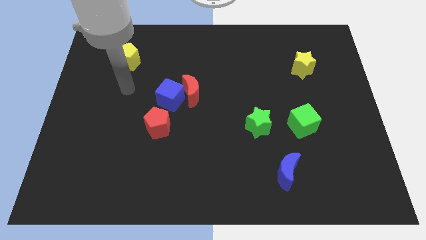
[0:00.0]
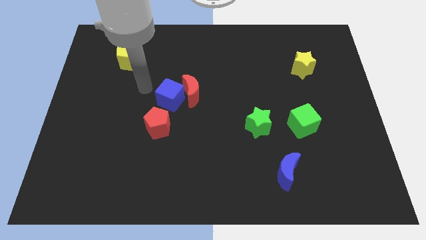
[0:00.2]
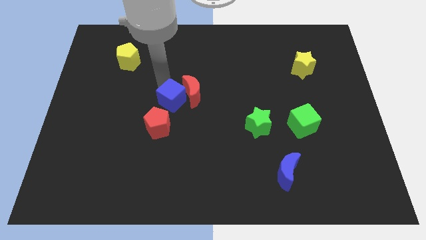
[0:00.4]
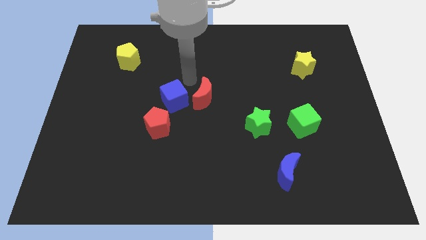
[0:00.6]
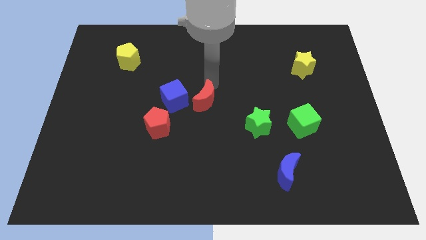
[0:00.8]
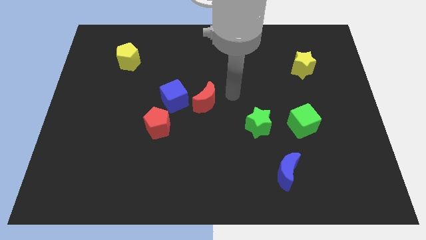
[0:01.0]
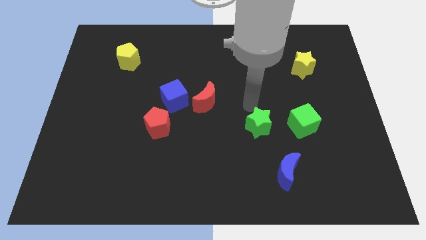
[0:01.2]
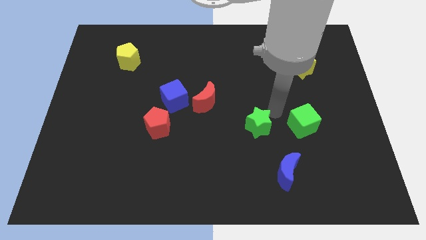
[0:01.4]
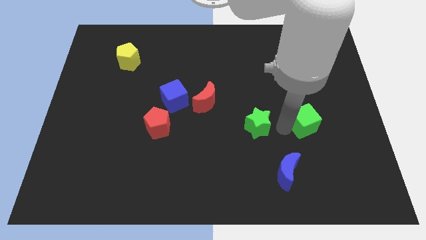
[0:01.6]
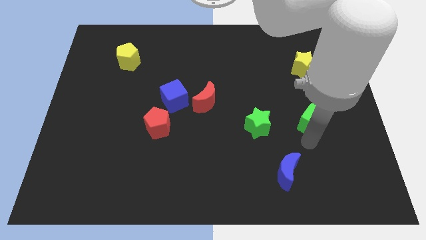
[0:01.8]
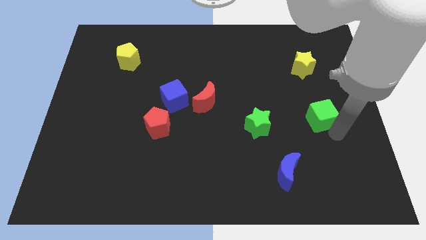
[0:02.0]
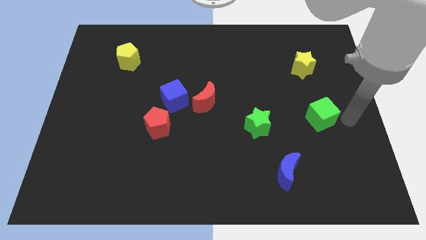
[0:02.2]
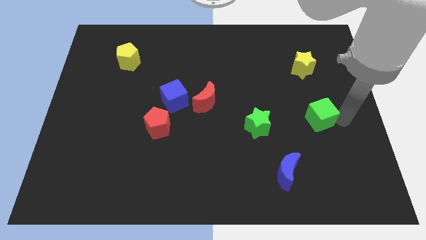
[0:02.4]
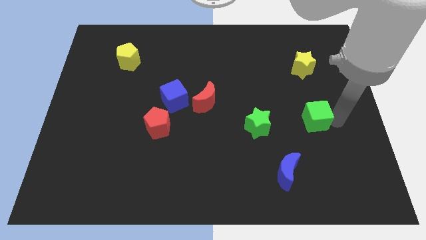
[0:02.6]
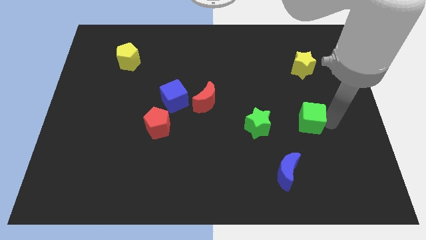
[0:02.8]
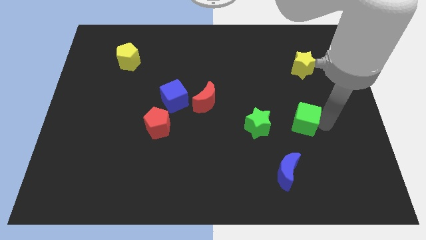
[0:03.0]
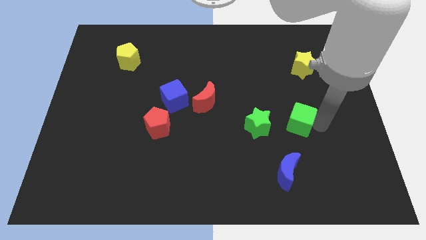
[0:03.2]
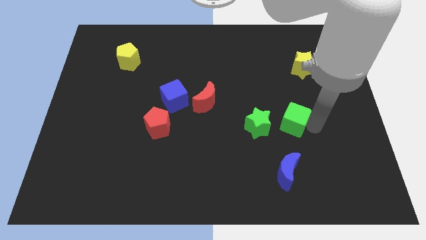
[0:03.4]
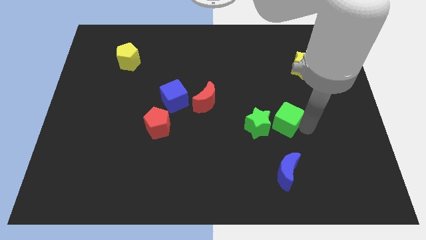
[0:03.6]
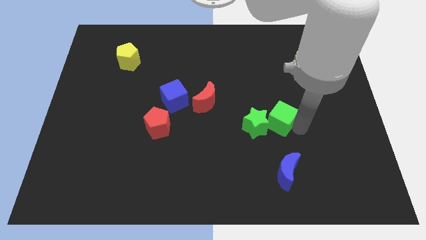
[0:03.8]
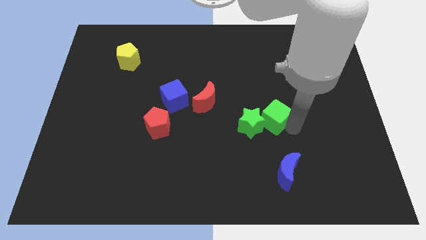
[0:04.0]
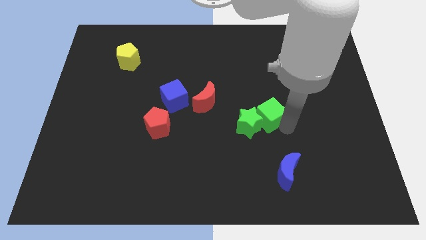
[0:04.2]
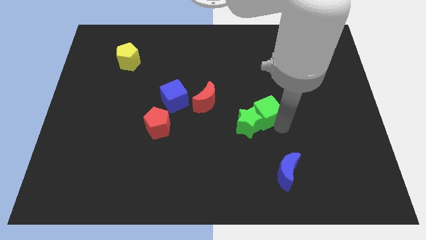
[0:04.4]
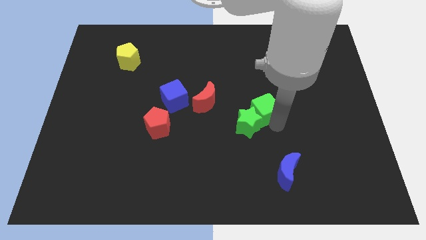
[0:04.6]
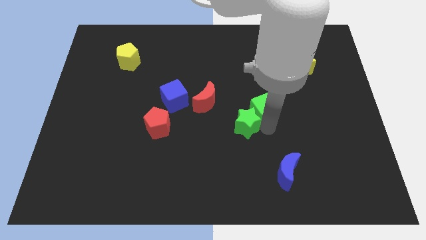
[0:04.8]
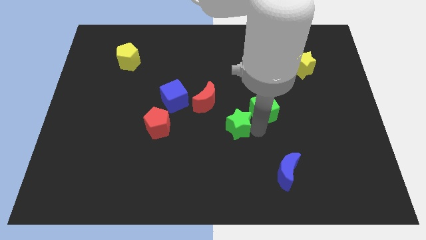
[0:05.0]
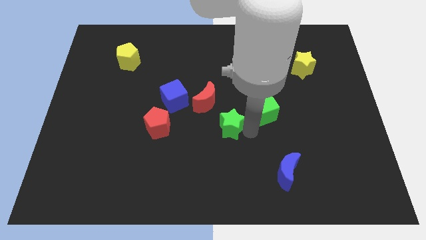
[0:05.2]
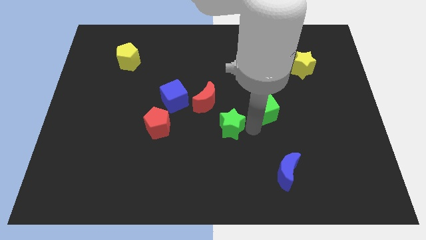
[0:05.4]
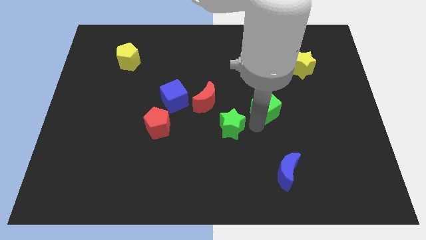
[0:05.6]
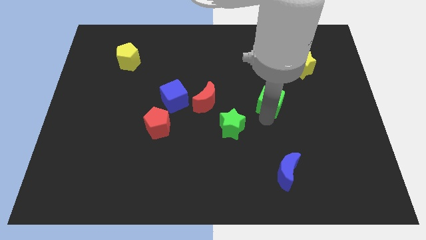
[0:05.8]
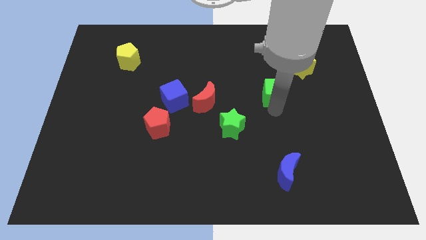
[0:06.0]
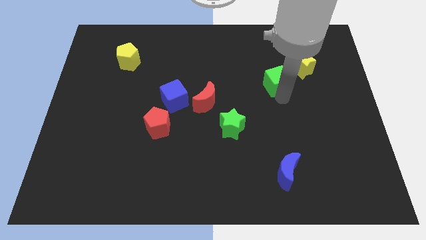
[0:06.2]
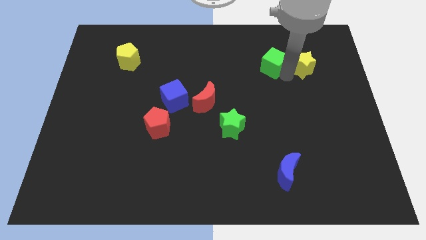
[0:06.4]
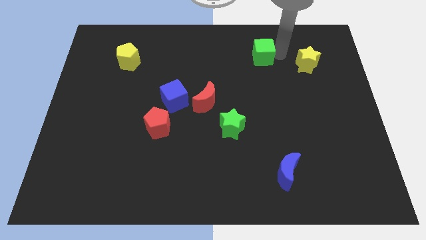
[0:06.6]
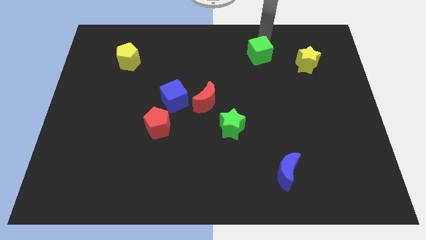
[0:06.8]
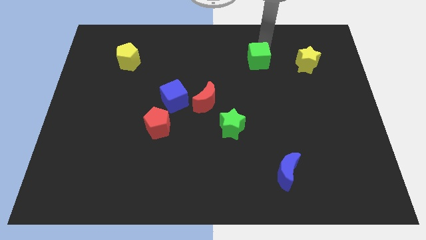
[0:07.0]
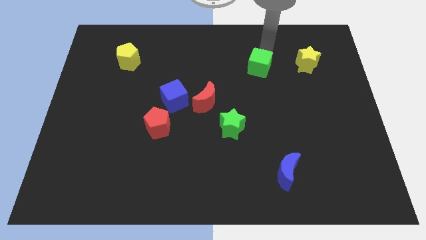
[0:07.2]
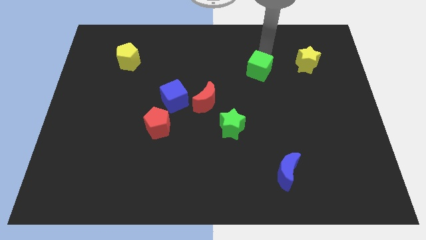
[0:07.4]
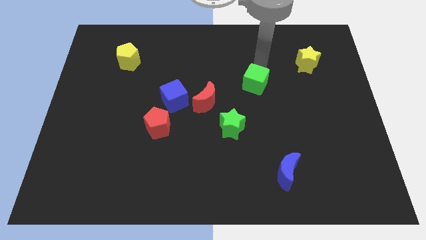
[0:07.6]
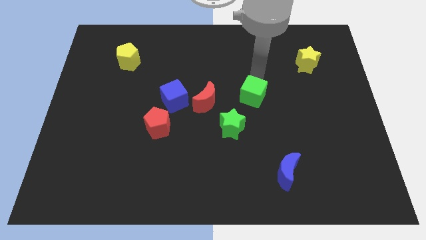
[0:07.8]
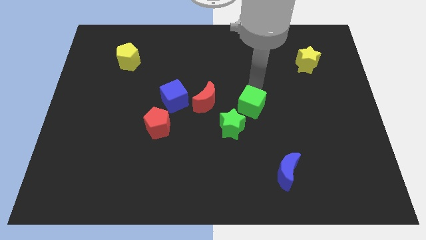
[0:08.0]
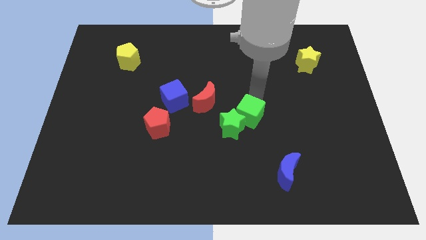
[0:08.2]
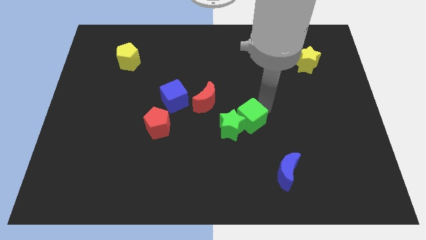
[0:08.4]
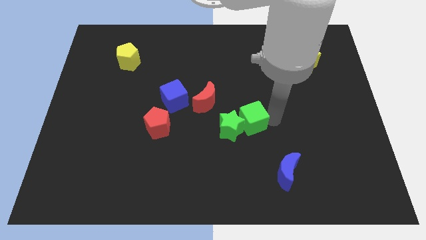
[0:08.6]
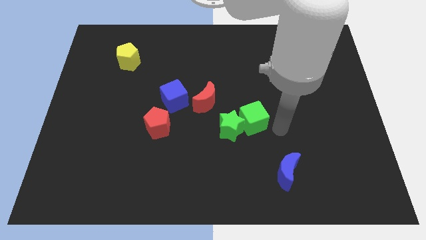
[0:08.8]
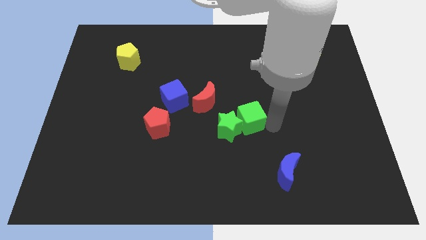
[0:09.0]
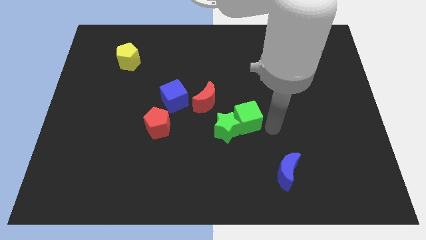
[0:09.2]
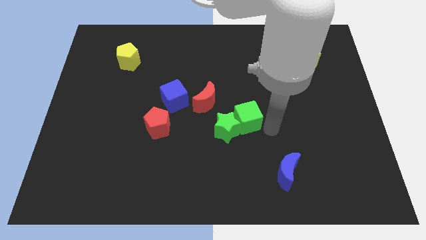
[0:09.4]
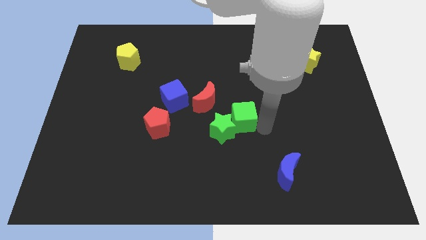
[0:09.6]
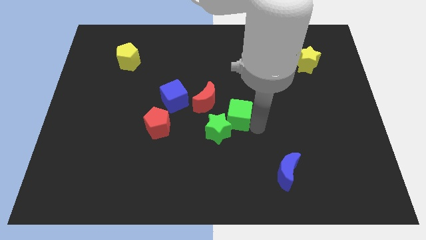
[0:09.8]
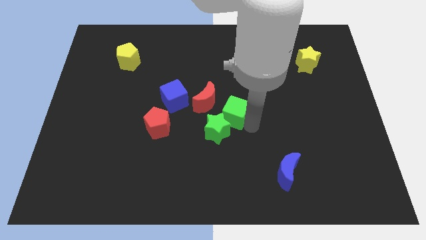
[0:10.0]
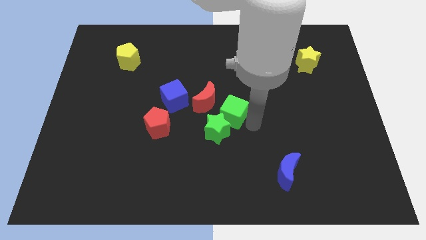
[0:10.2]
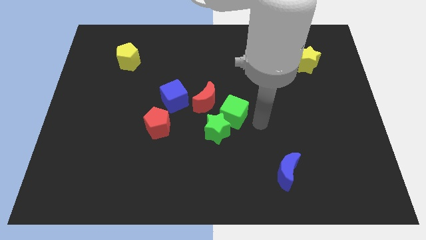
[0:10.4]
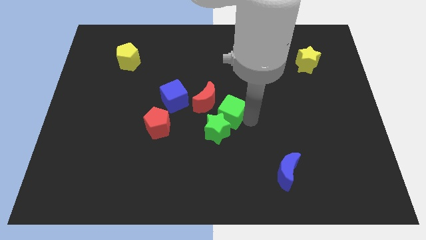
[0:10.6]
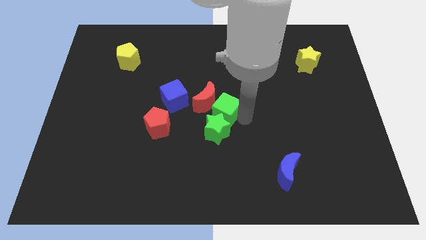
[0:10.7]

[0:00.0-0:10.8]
put the green cube next to the red moon
